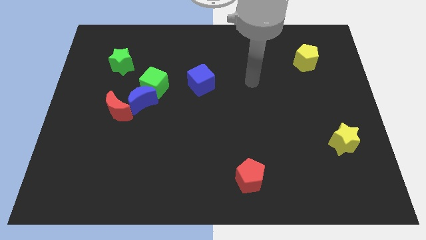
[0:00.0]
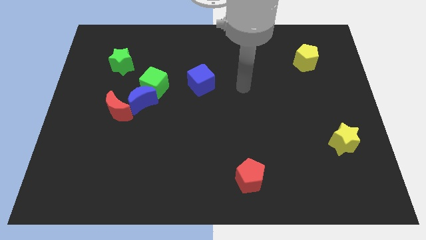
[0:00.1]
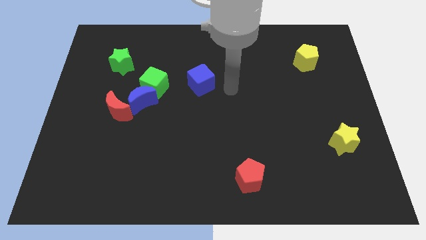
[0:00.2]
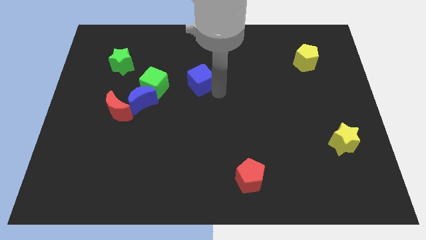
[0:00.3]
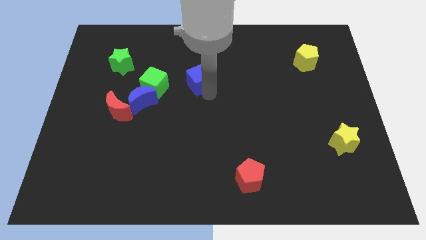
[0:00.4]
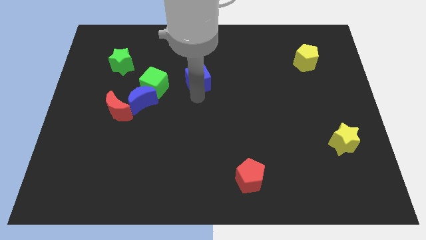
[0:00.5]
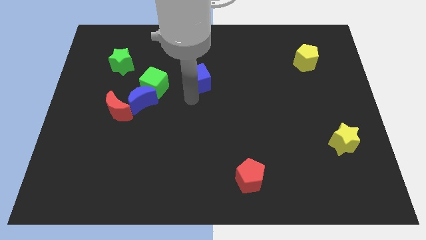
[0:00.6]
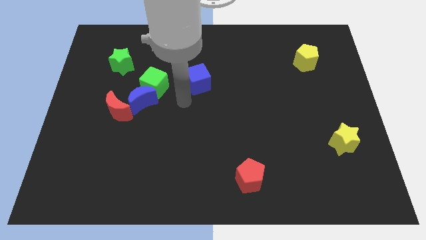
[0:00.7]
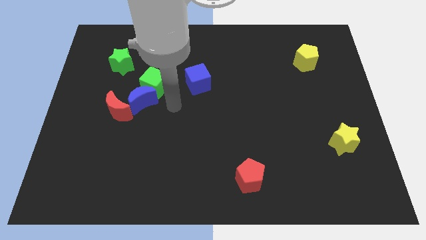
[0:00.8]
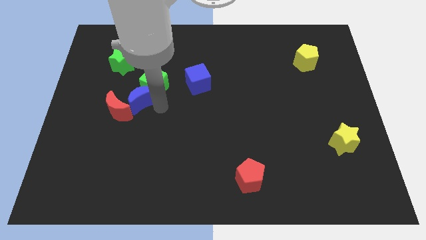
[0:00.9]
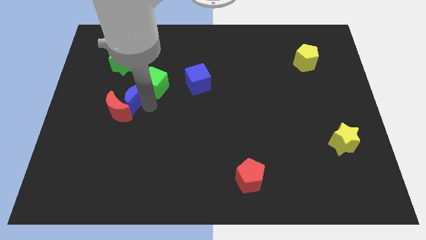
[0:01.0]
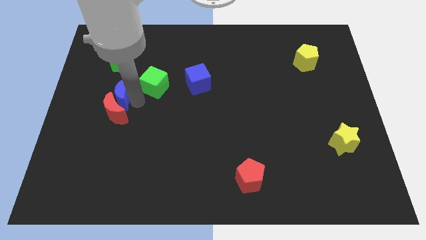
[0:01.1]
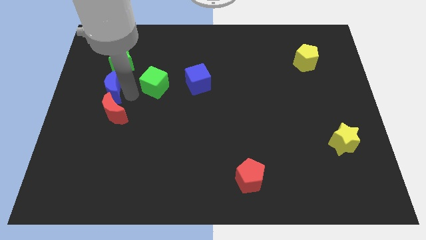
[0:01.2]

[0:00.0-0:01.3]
pull the green cube apart from the blue moon

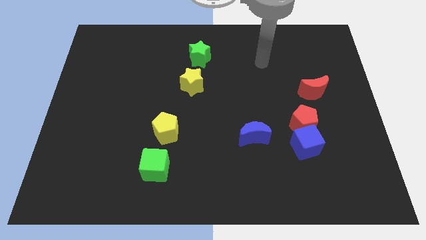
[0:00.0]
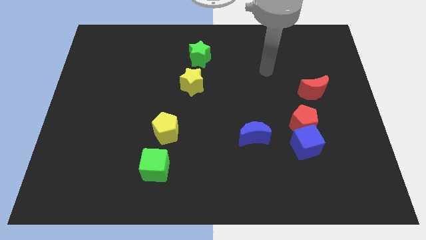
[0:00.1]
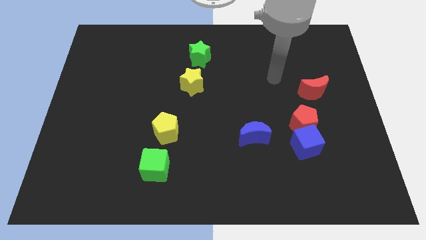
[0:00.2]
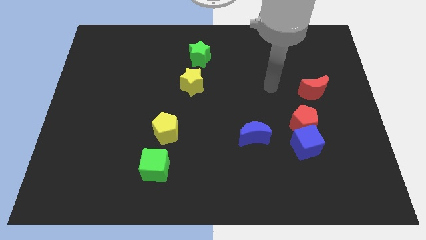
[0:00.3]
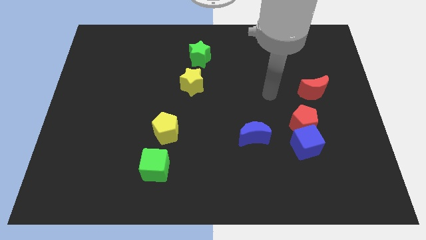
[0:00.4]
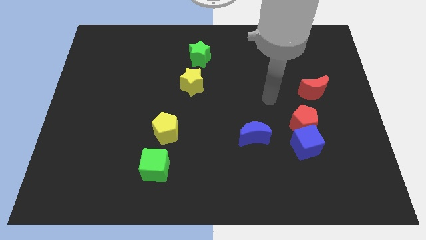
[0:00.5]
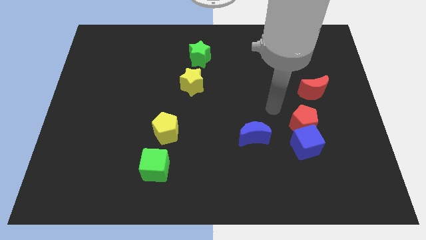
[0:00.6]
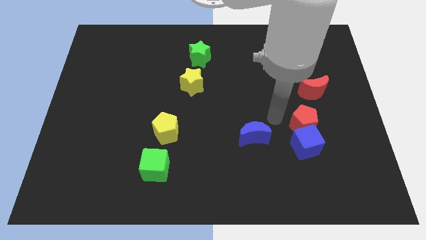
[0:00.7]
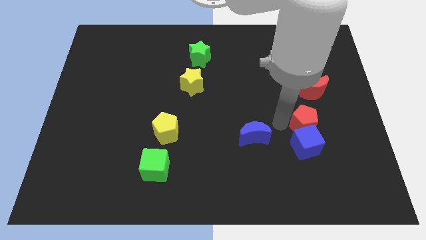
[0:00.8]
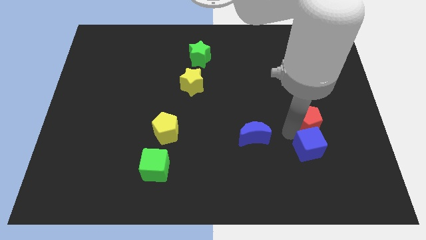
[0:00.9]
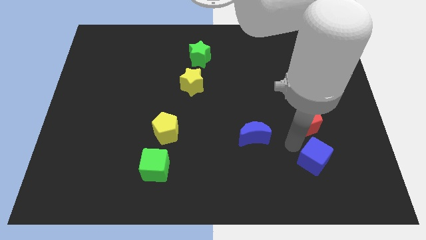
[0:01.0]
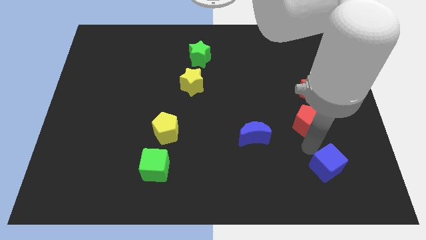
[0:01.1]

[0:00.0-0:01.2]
pull the red pentagon apart from the blue cube

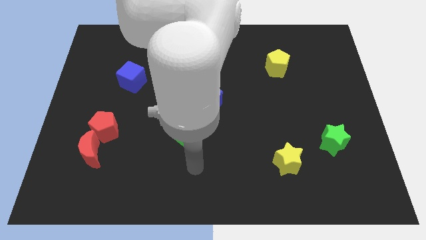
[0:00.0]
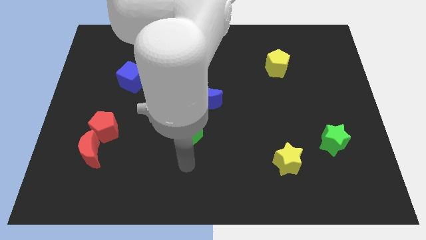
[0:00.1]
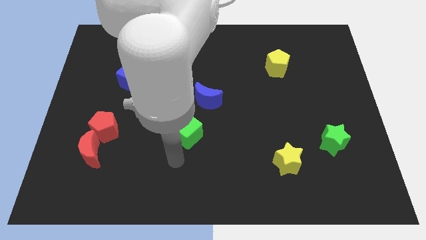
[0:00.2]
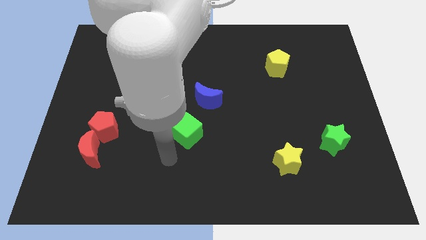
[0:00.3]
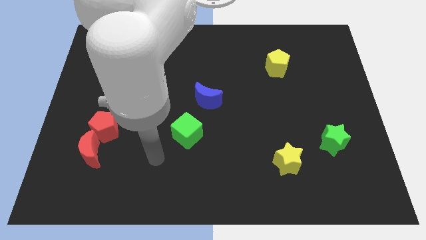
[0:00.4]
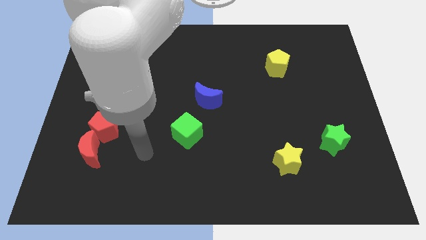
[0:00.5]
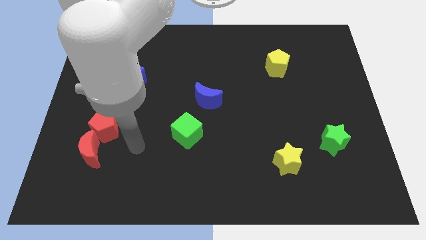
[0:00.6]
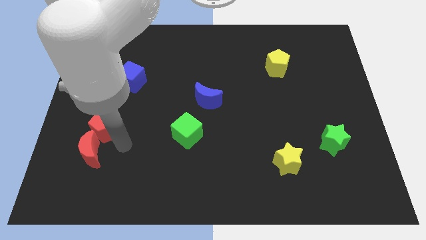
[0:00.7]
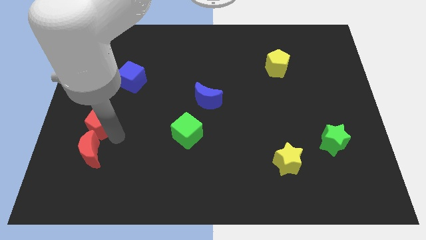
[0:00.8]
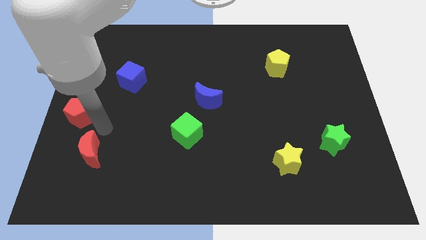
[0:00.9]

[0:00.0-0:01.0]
move the red moon away from the red pentagon

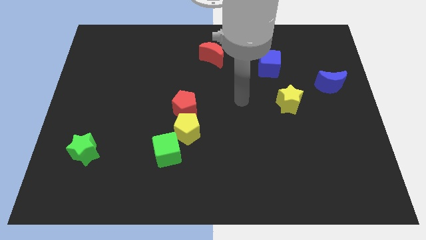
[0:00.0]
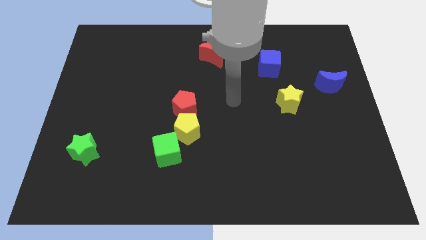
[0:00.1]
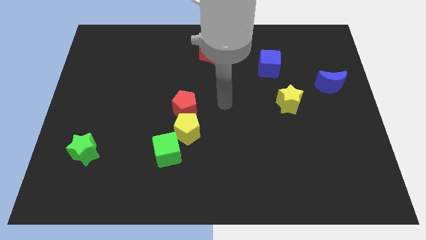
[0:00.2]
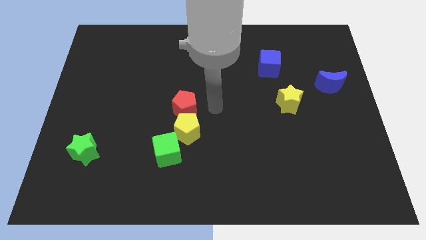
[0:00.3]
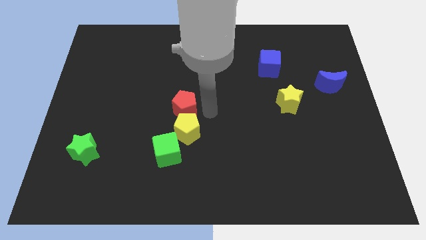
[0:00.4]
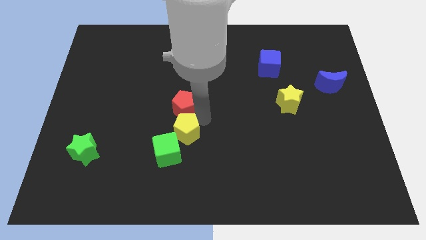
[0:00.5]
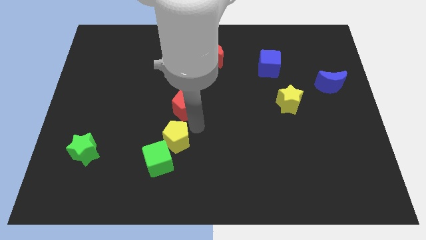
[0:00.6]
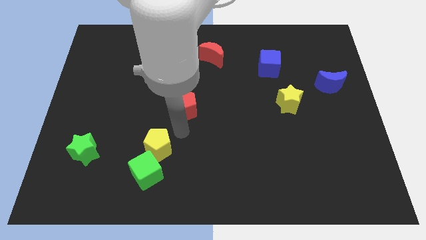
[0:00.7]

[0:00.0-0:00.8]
separate the red pentagon from the yellow pentagon

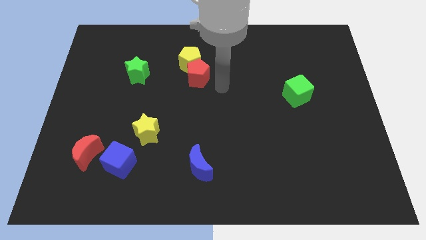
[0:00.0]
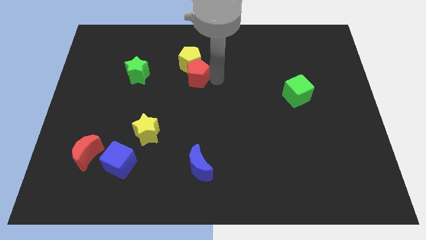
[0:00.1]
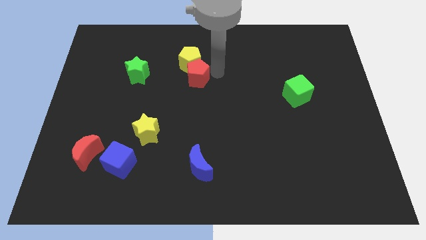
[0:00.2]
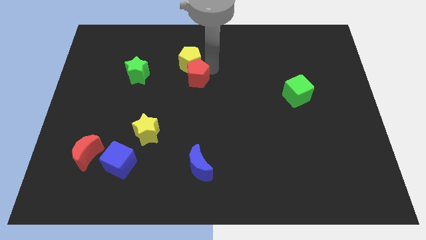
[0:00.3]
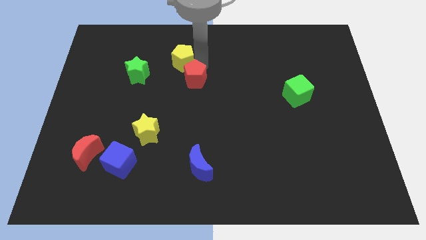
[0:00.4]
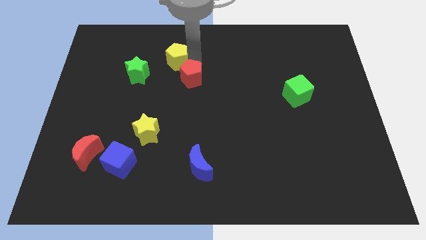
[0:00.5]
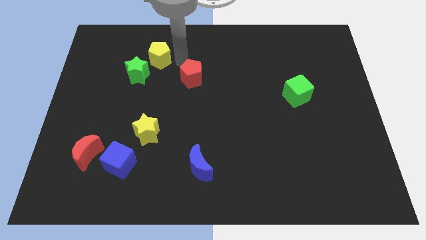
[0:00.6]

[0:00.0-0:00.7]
pull the red pentagon apart from the yellow pentagon

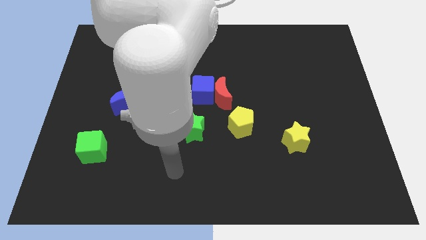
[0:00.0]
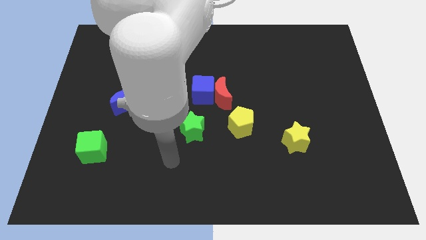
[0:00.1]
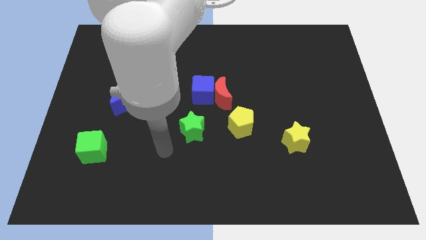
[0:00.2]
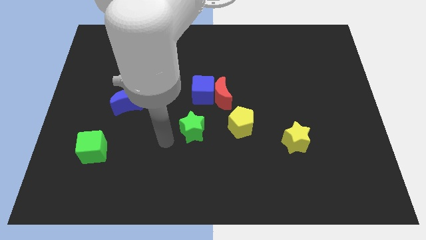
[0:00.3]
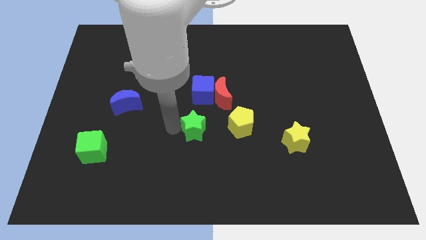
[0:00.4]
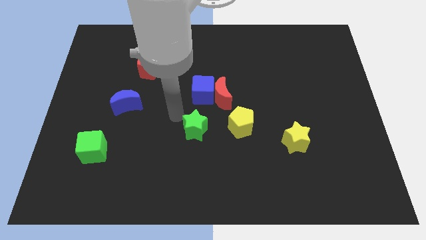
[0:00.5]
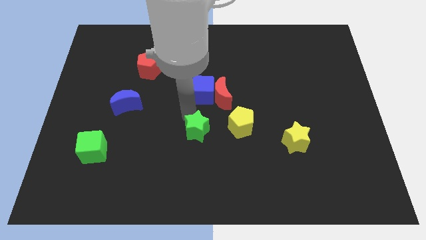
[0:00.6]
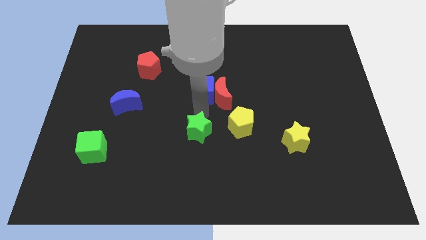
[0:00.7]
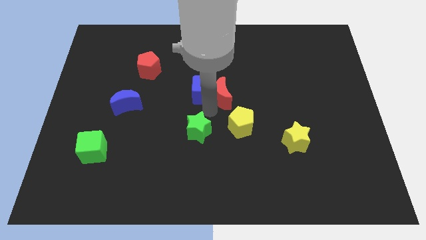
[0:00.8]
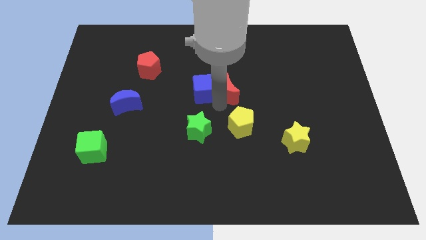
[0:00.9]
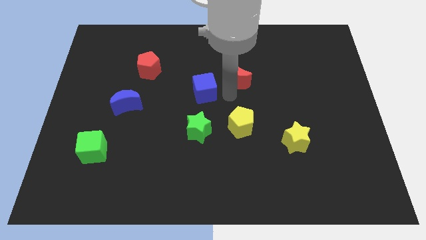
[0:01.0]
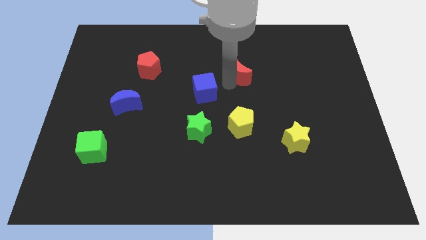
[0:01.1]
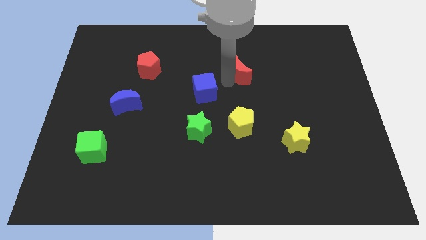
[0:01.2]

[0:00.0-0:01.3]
pull the blue cube apart from the red moon

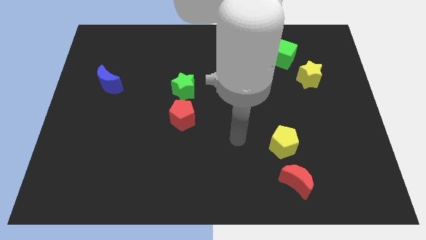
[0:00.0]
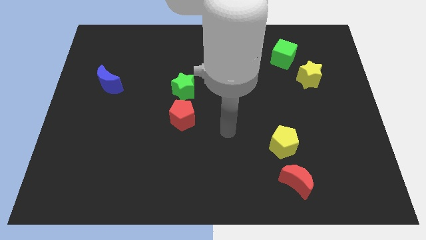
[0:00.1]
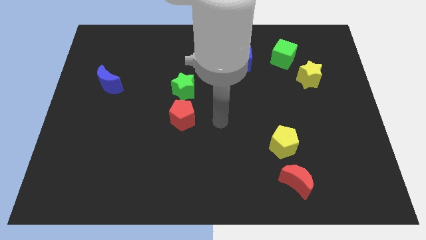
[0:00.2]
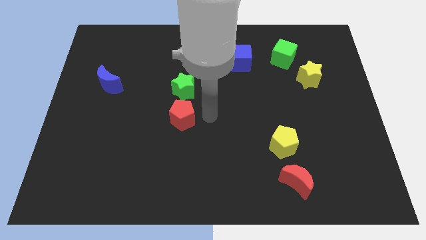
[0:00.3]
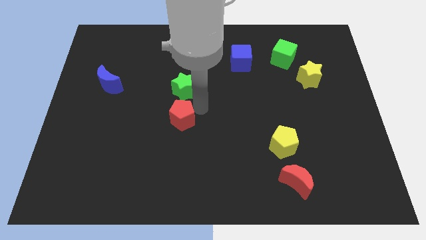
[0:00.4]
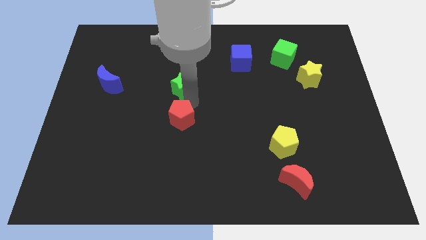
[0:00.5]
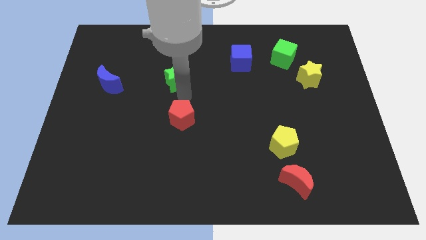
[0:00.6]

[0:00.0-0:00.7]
pull the red pentagon apart from the green star

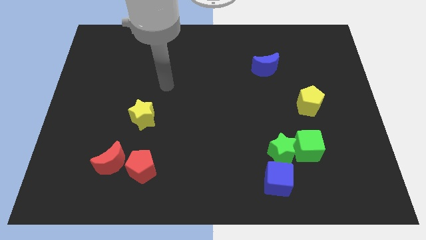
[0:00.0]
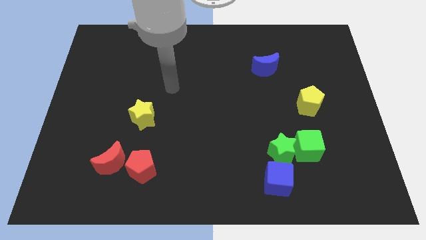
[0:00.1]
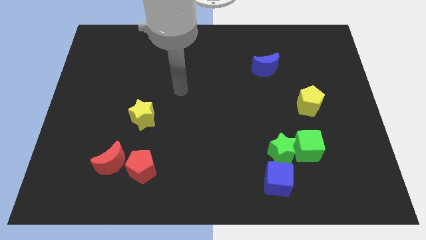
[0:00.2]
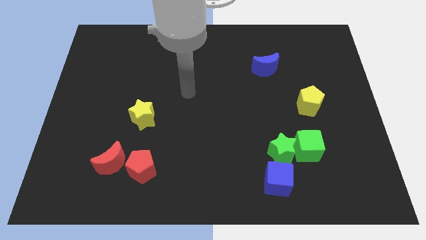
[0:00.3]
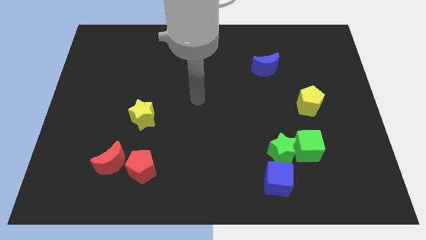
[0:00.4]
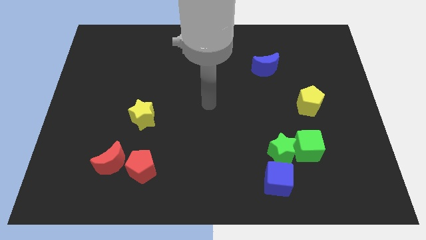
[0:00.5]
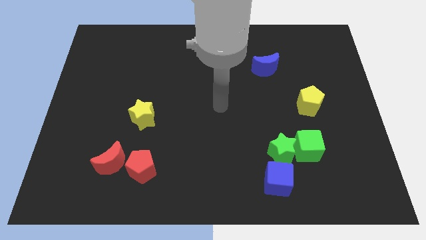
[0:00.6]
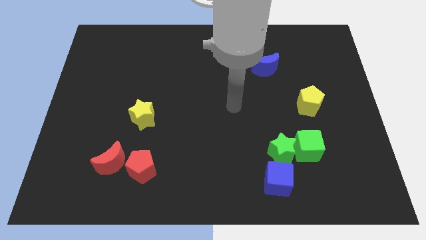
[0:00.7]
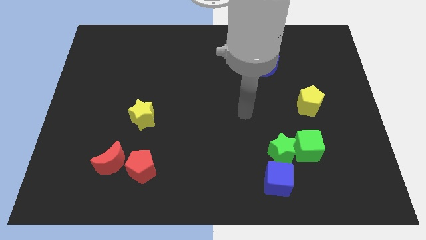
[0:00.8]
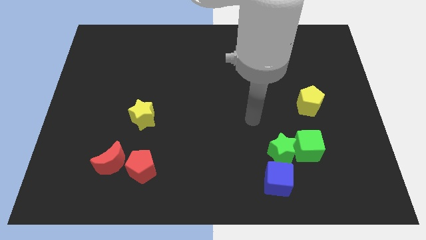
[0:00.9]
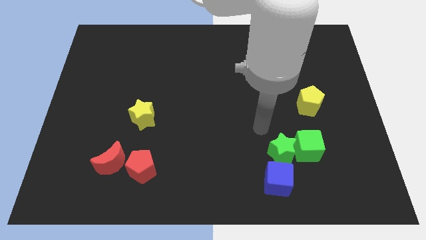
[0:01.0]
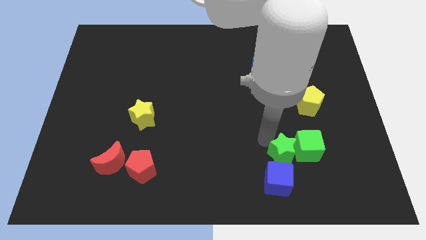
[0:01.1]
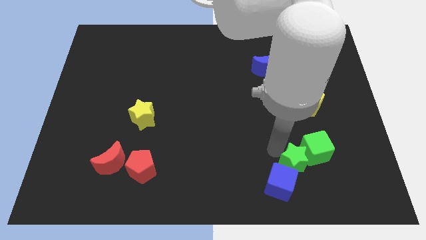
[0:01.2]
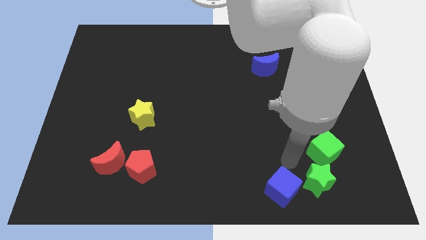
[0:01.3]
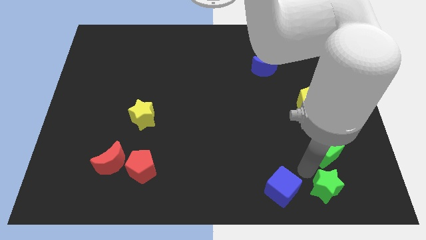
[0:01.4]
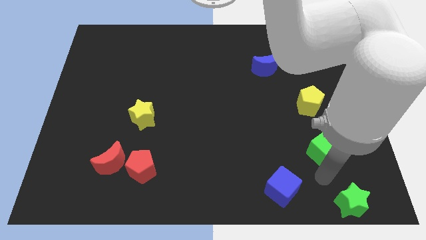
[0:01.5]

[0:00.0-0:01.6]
pull the green cube apart from the green star

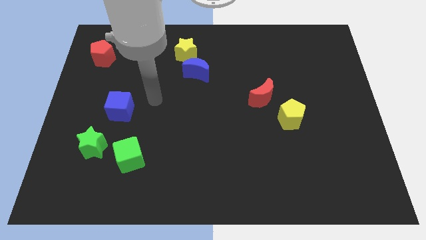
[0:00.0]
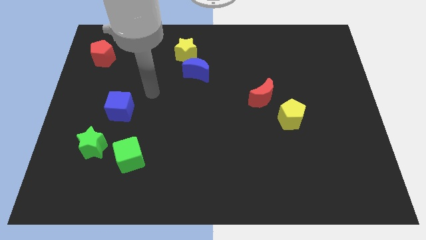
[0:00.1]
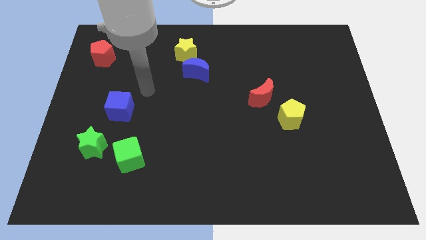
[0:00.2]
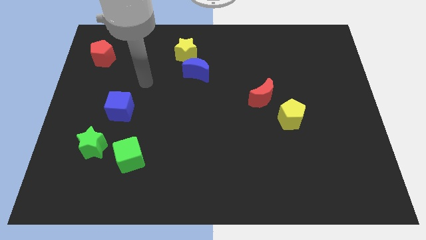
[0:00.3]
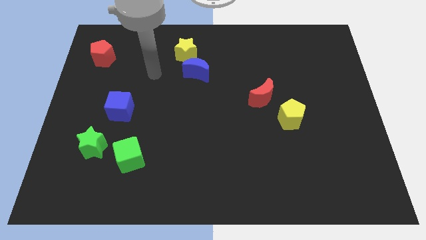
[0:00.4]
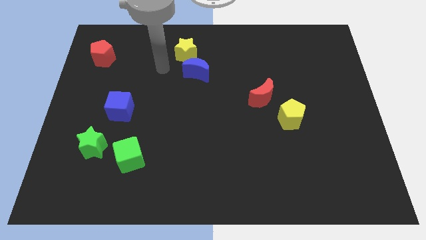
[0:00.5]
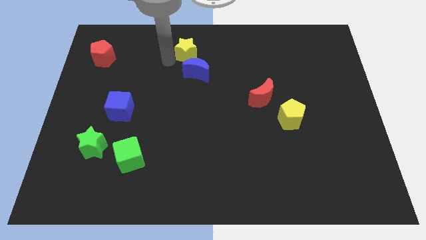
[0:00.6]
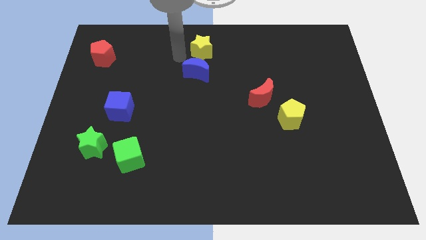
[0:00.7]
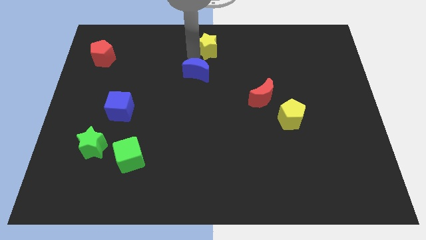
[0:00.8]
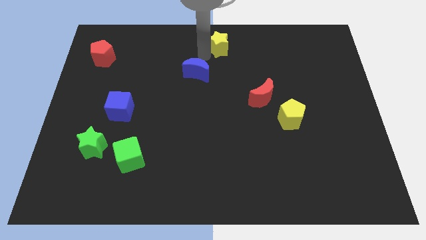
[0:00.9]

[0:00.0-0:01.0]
pull the blue moon apart from the yellow star
